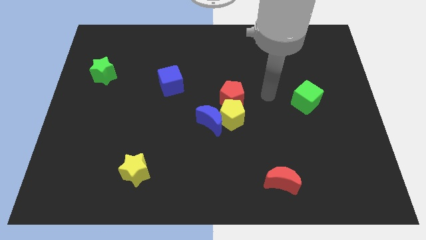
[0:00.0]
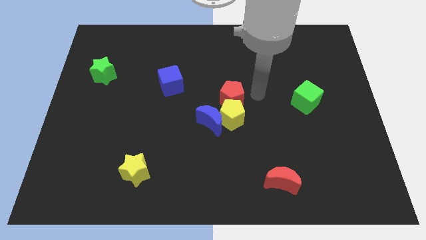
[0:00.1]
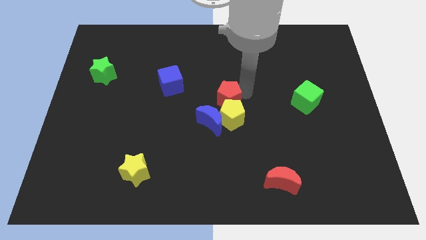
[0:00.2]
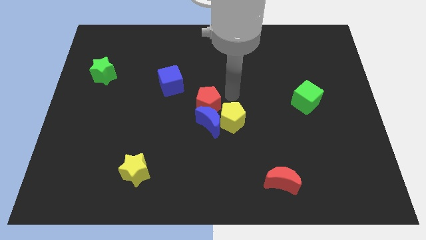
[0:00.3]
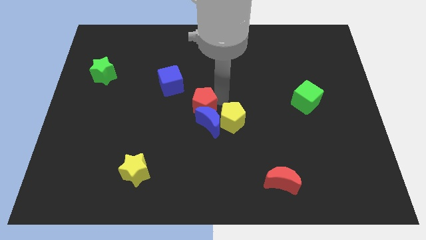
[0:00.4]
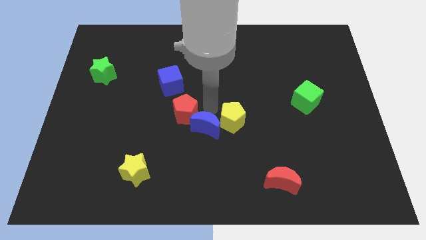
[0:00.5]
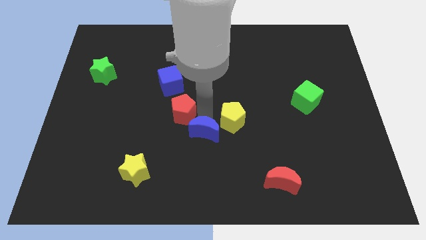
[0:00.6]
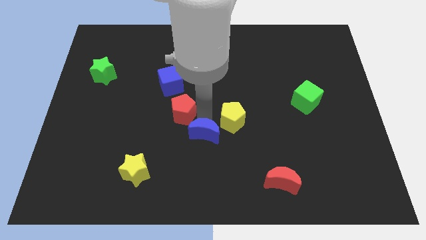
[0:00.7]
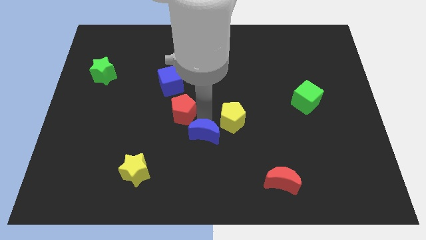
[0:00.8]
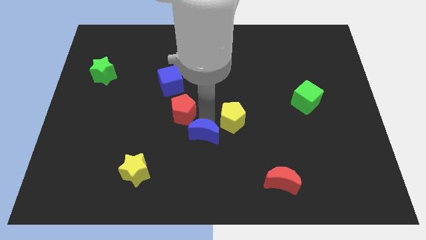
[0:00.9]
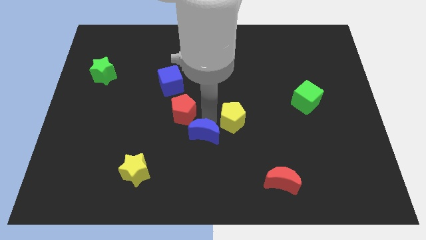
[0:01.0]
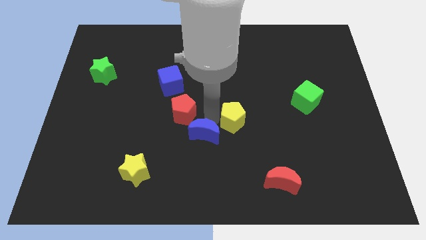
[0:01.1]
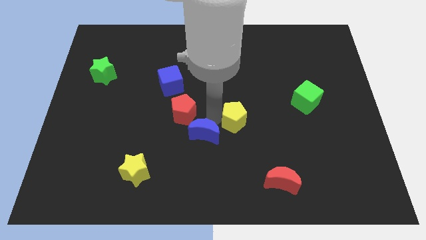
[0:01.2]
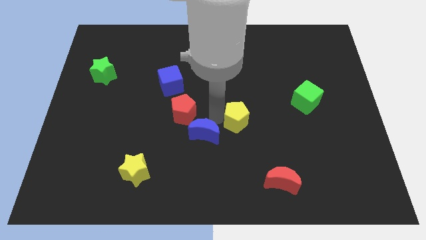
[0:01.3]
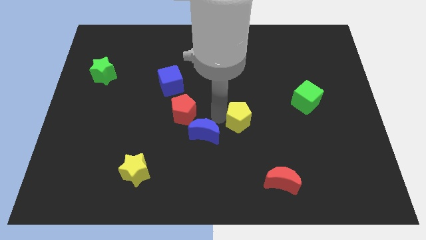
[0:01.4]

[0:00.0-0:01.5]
separate the yellow pentagon from the blue moon and red pentagon

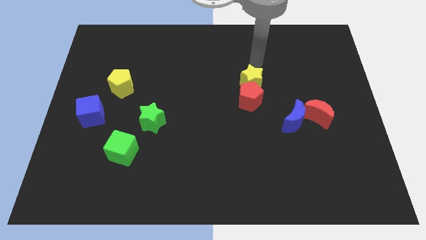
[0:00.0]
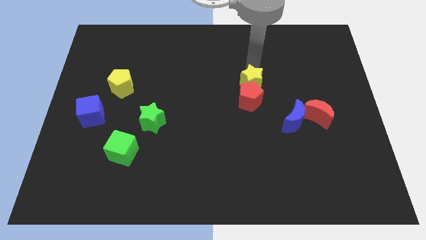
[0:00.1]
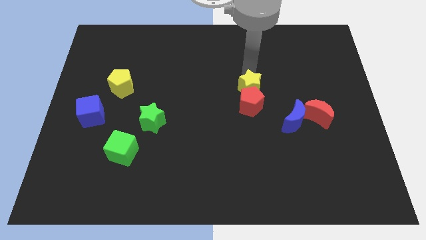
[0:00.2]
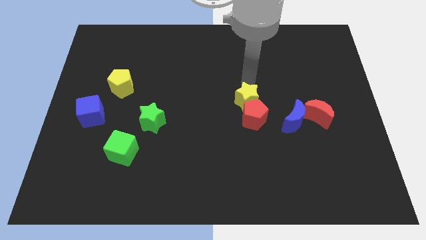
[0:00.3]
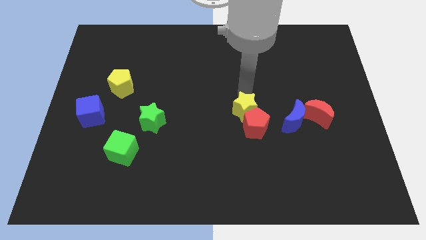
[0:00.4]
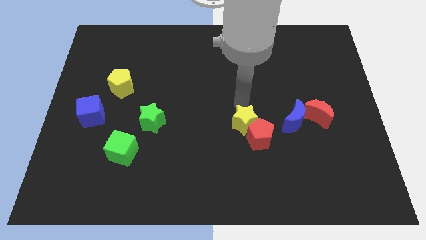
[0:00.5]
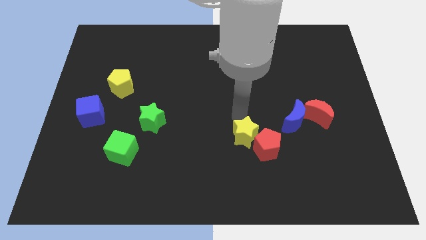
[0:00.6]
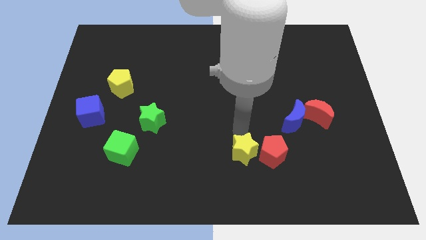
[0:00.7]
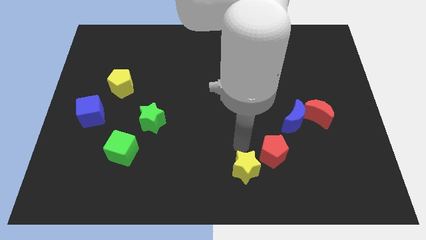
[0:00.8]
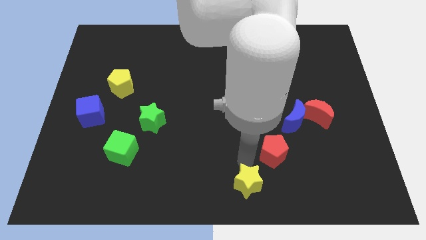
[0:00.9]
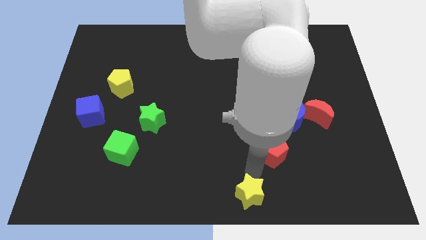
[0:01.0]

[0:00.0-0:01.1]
move the red pentagon away from the yellow star

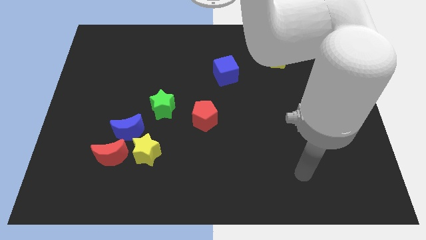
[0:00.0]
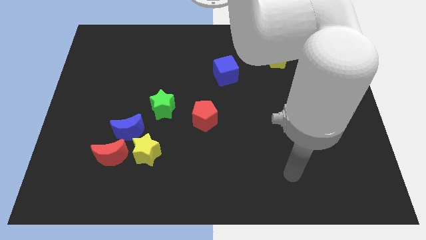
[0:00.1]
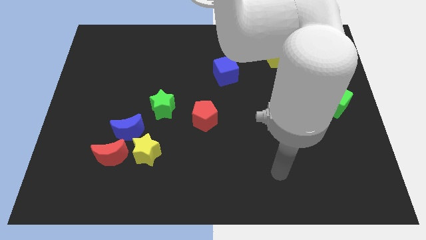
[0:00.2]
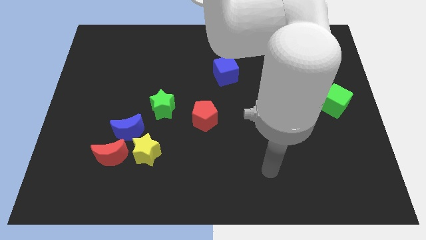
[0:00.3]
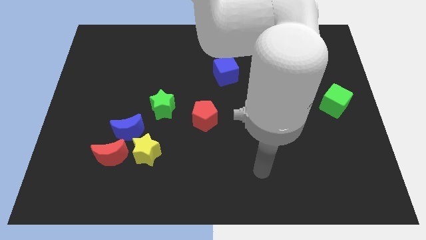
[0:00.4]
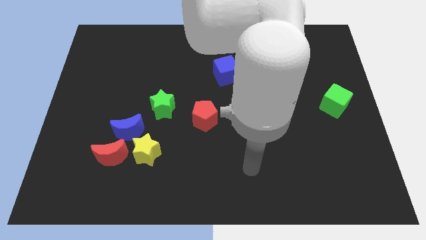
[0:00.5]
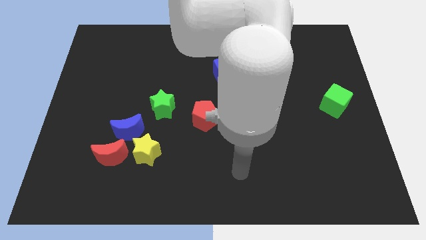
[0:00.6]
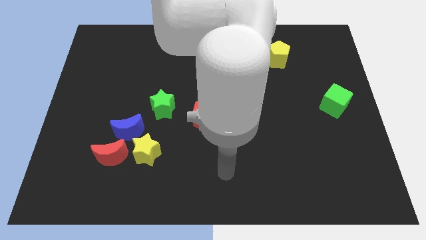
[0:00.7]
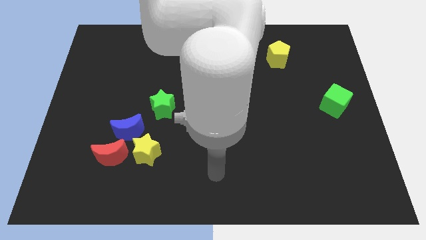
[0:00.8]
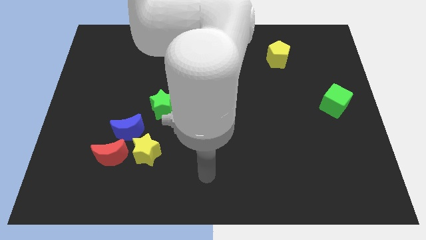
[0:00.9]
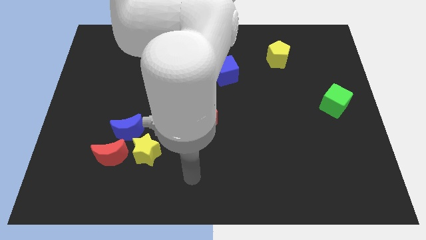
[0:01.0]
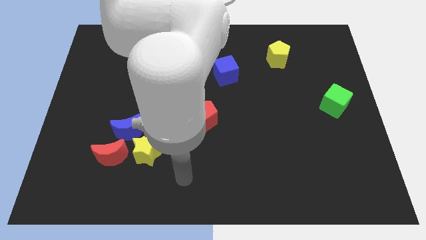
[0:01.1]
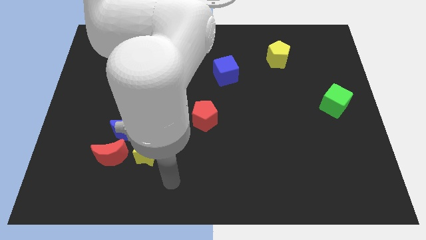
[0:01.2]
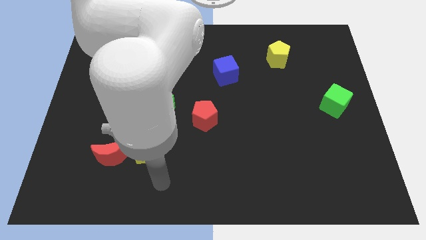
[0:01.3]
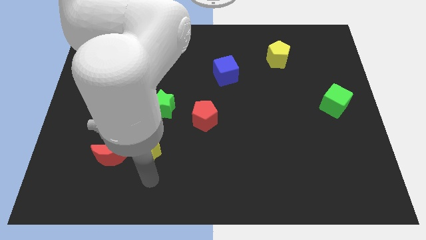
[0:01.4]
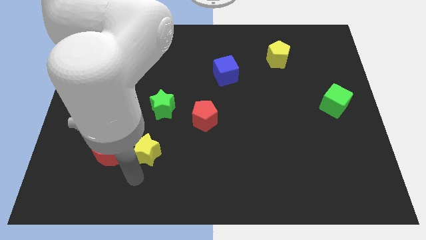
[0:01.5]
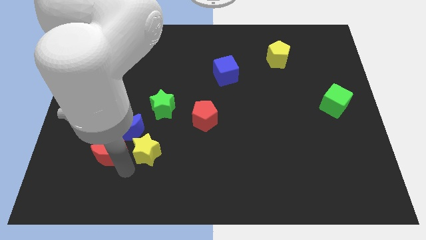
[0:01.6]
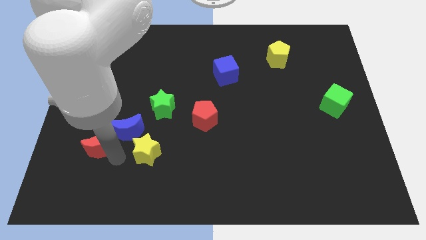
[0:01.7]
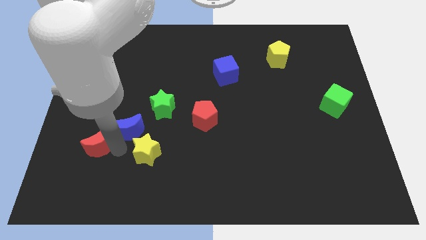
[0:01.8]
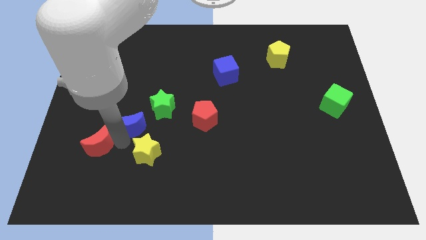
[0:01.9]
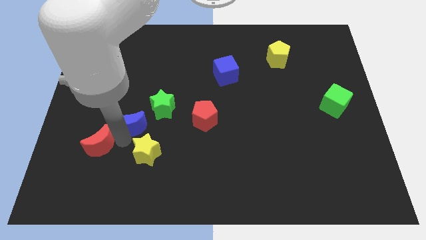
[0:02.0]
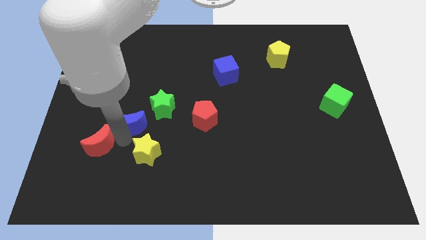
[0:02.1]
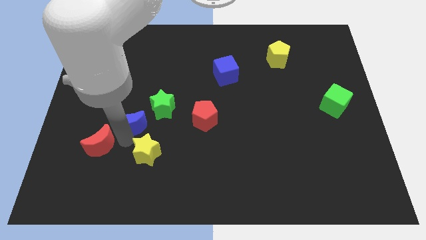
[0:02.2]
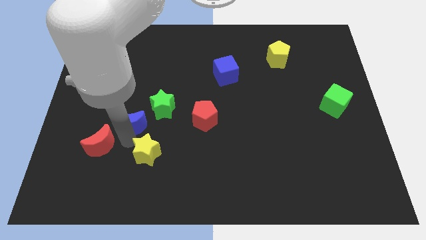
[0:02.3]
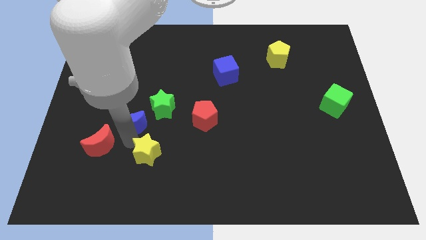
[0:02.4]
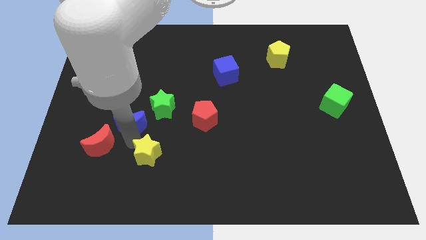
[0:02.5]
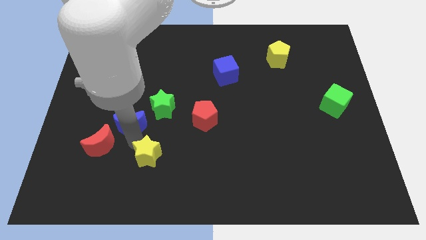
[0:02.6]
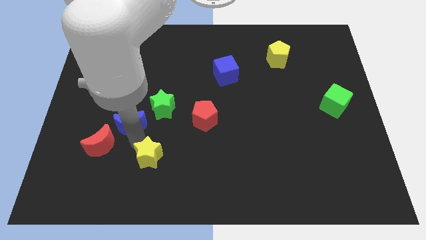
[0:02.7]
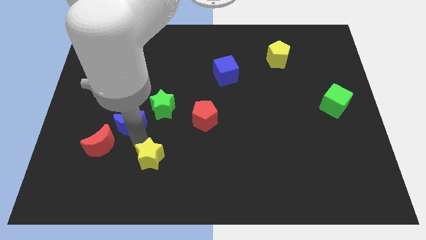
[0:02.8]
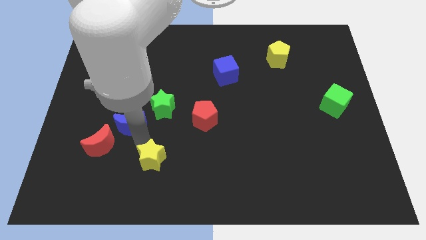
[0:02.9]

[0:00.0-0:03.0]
pull the yellow star apart from the blue moon and red moon

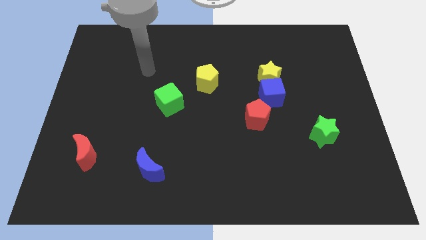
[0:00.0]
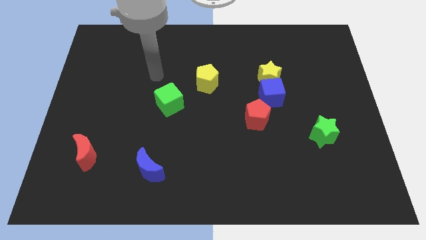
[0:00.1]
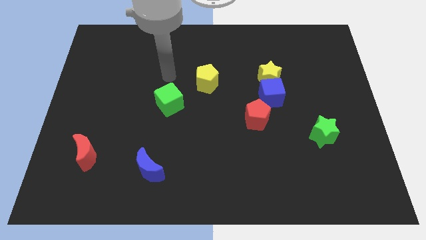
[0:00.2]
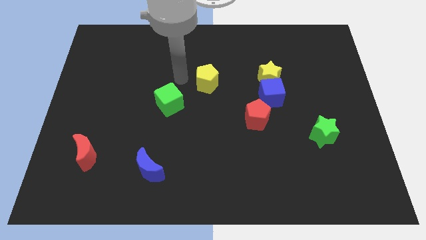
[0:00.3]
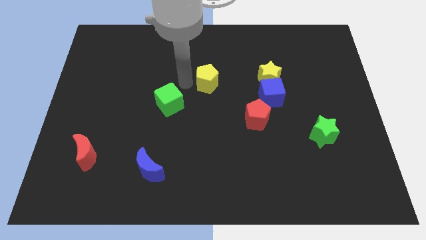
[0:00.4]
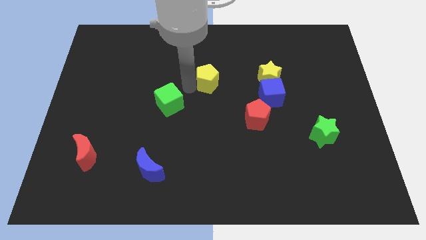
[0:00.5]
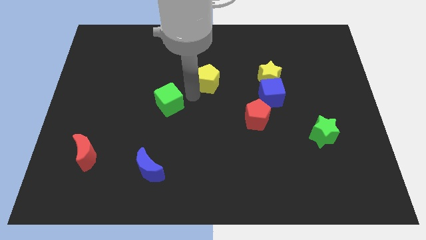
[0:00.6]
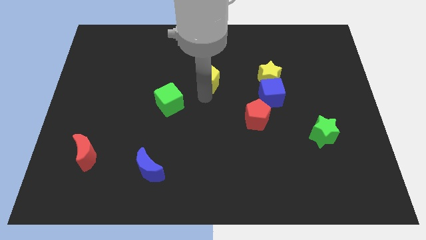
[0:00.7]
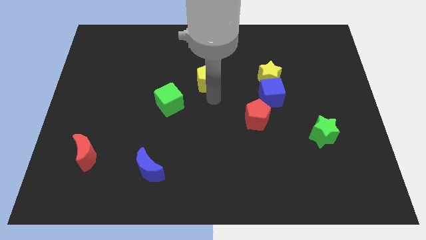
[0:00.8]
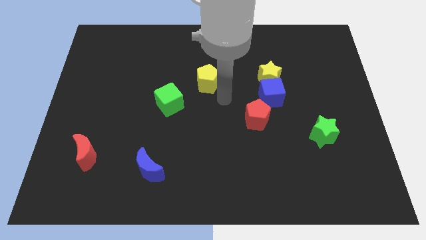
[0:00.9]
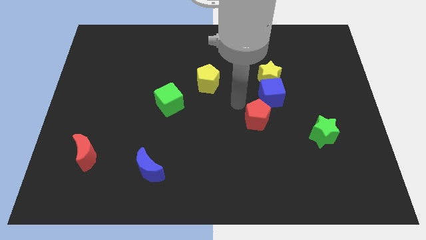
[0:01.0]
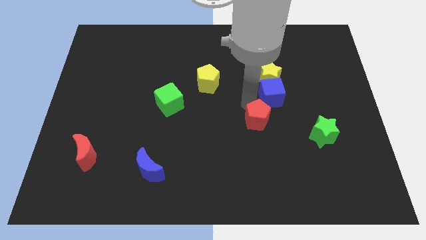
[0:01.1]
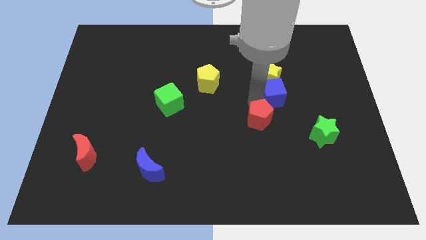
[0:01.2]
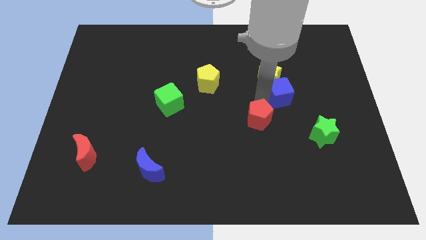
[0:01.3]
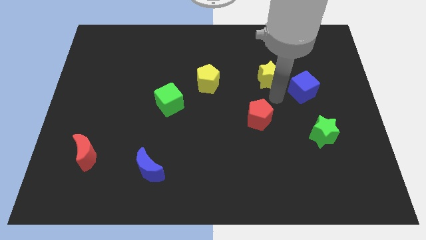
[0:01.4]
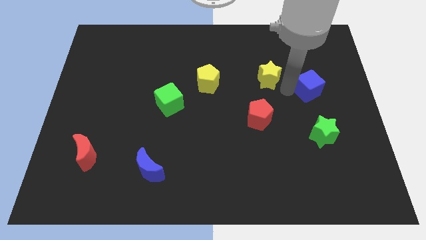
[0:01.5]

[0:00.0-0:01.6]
move the yellow star away from the blue cube

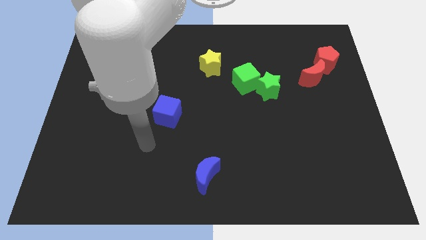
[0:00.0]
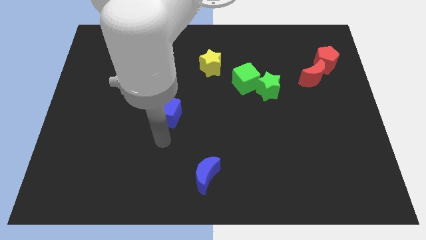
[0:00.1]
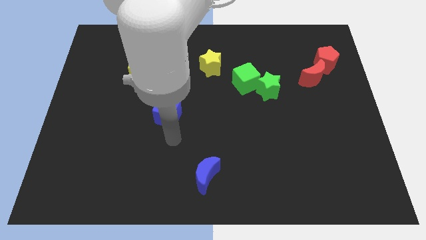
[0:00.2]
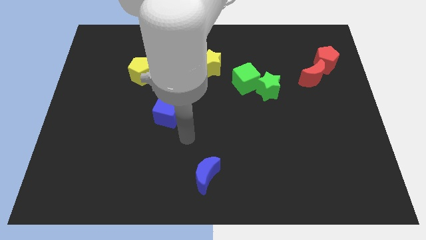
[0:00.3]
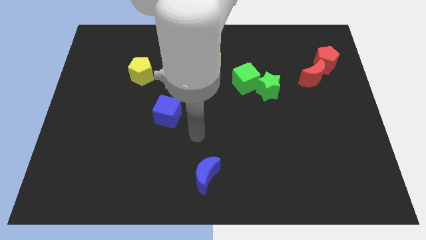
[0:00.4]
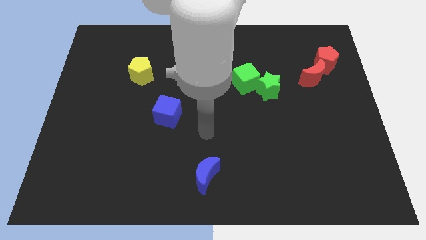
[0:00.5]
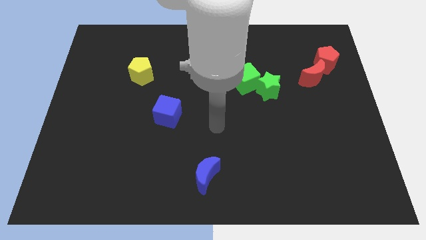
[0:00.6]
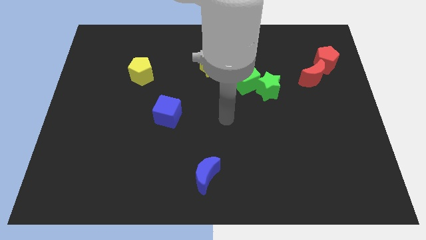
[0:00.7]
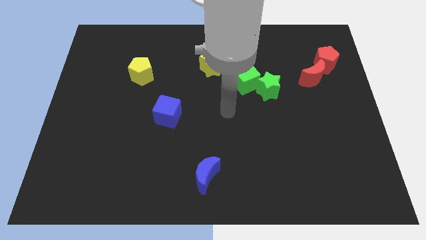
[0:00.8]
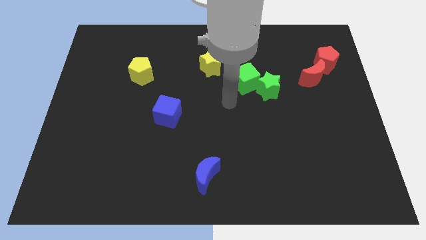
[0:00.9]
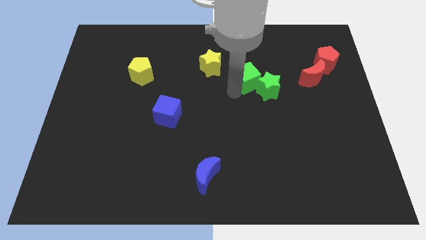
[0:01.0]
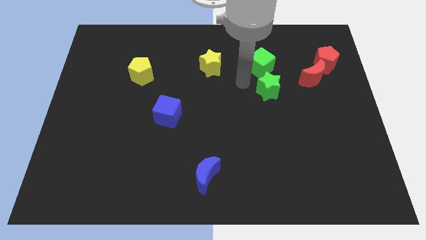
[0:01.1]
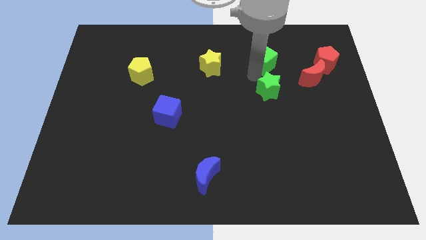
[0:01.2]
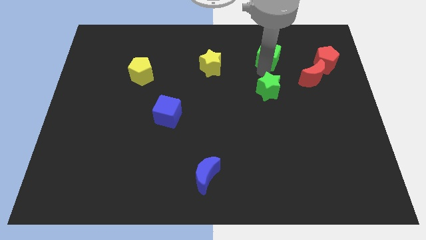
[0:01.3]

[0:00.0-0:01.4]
pull the green star apart from the green cube

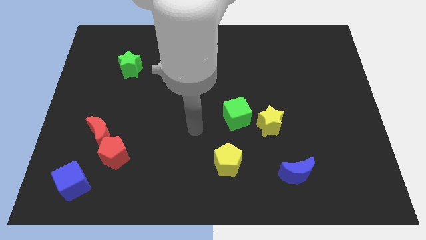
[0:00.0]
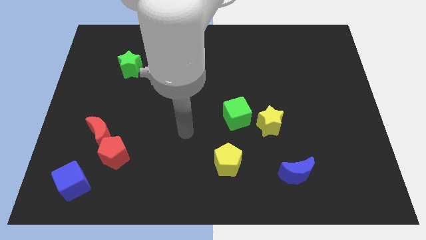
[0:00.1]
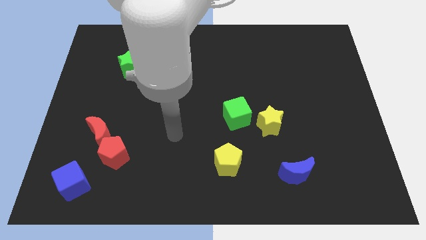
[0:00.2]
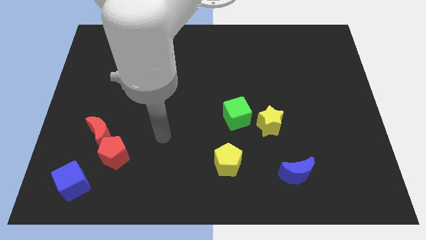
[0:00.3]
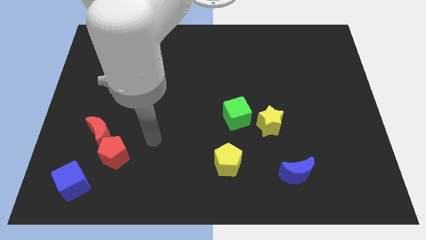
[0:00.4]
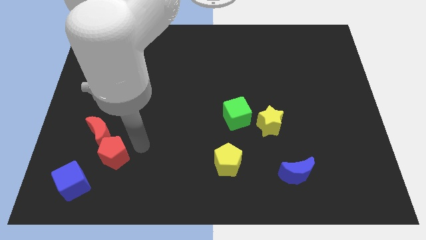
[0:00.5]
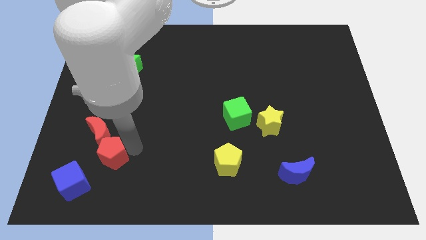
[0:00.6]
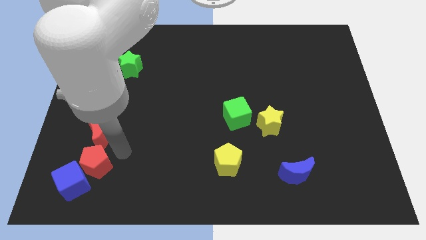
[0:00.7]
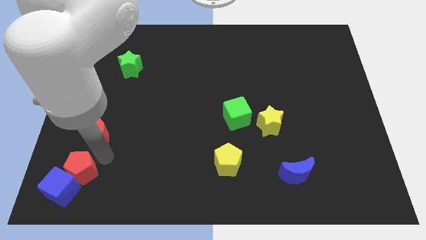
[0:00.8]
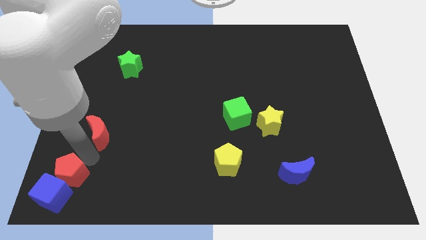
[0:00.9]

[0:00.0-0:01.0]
separate the red moon from the red pentagon
